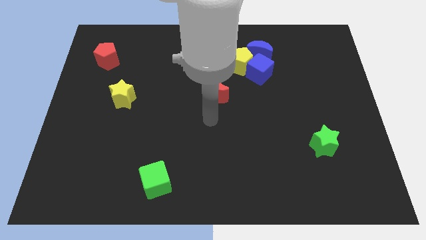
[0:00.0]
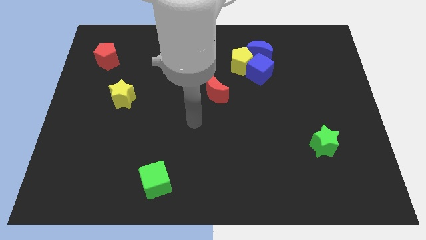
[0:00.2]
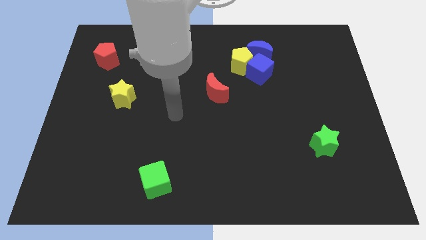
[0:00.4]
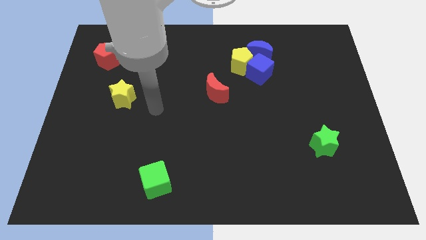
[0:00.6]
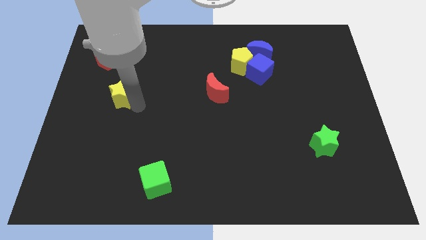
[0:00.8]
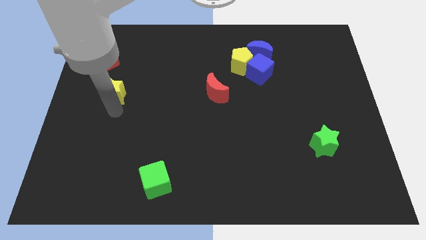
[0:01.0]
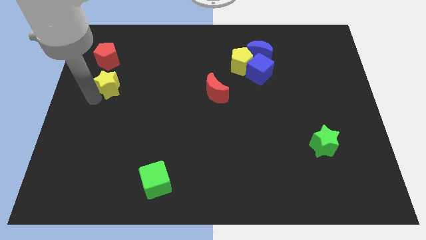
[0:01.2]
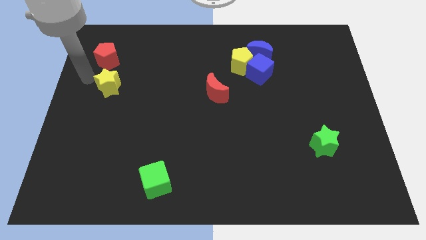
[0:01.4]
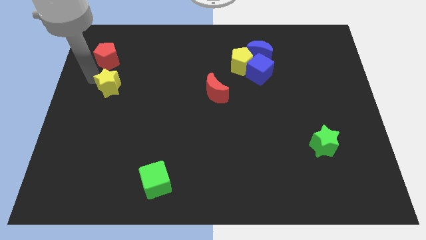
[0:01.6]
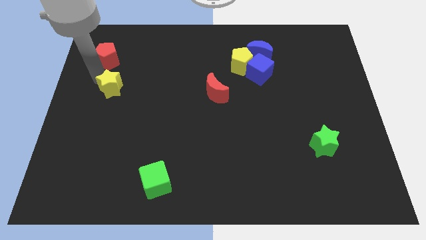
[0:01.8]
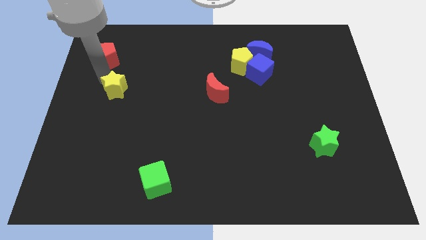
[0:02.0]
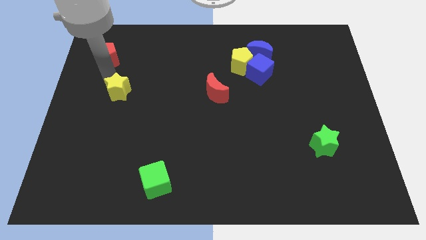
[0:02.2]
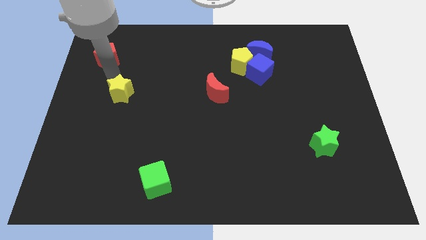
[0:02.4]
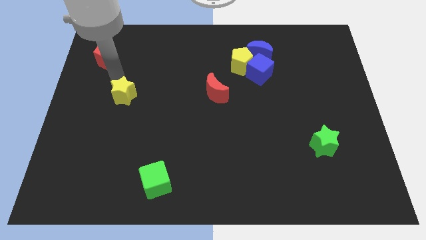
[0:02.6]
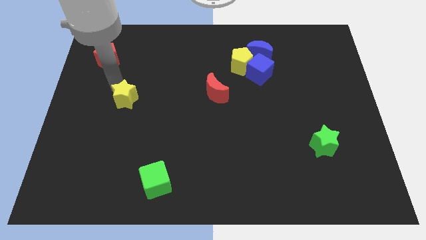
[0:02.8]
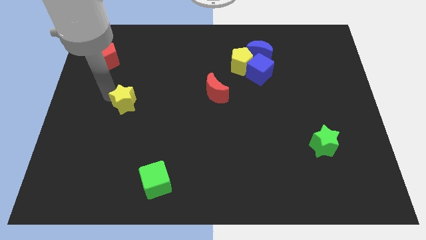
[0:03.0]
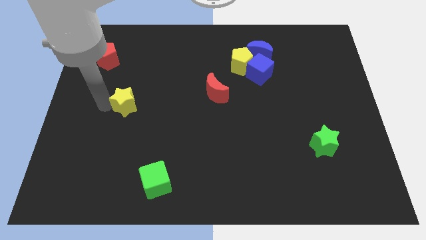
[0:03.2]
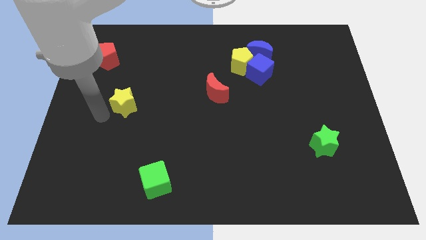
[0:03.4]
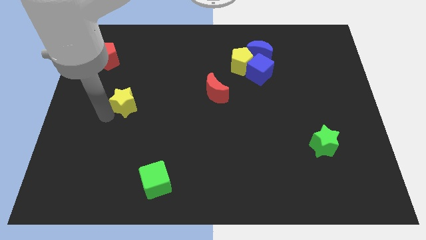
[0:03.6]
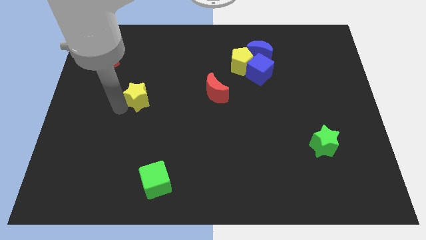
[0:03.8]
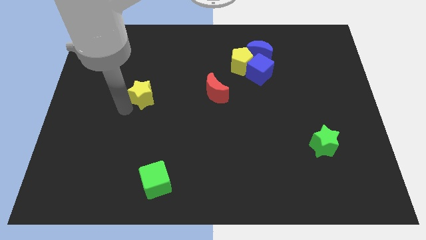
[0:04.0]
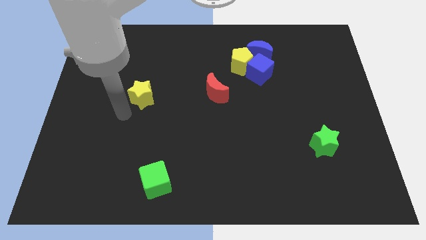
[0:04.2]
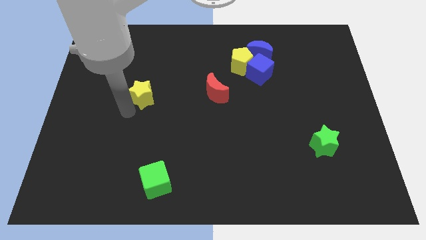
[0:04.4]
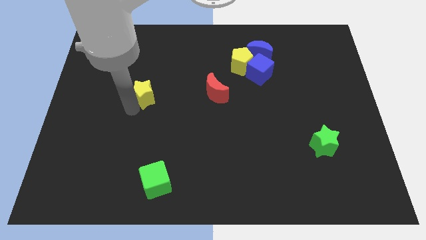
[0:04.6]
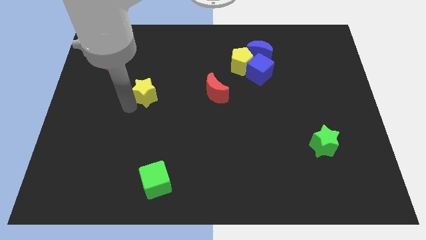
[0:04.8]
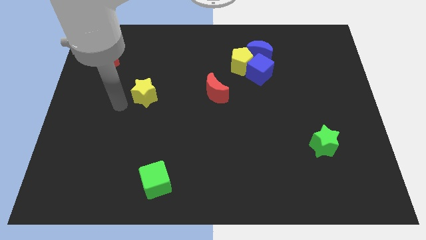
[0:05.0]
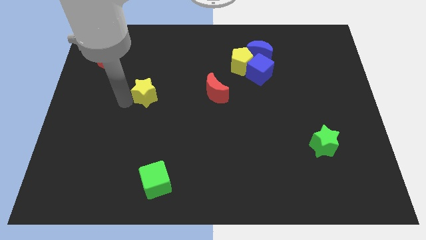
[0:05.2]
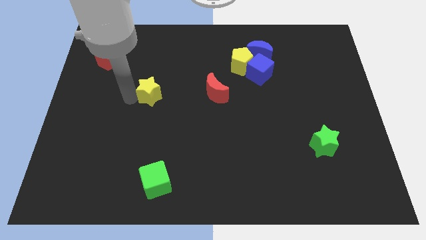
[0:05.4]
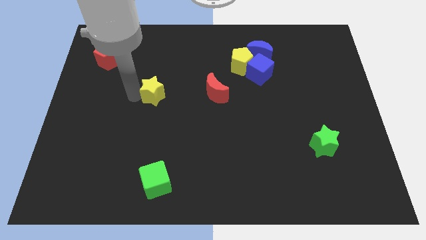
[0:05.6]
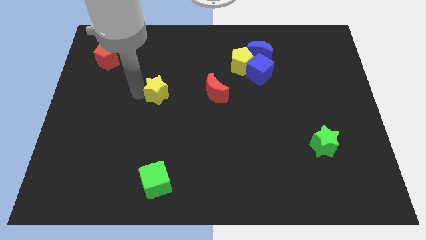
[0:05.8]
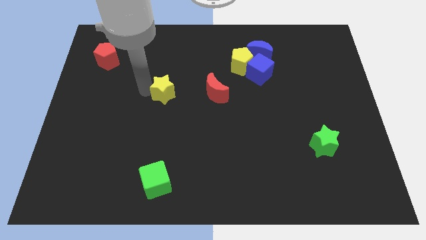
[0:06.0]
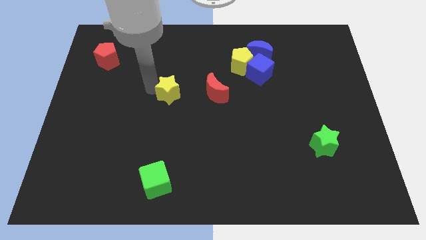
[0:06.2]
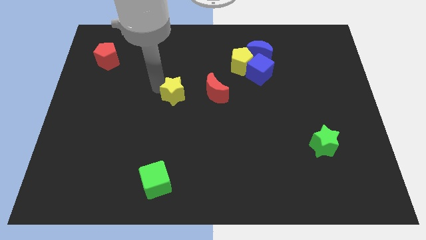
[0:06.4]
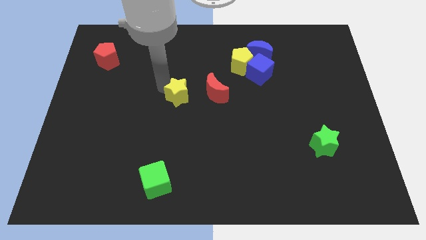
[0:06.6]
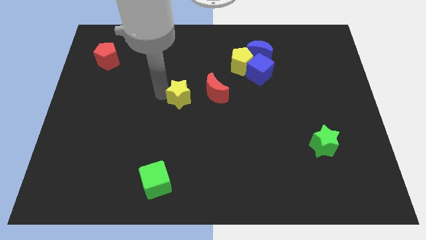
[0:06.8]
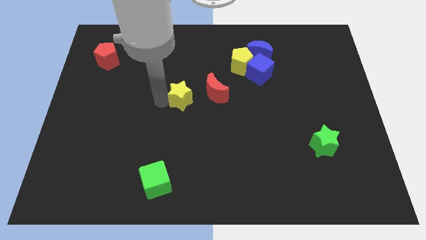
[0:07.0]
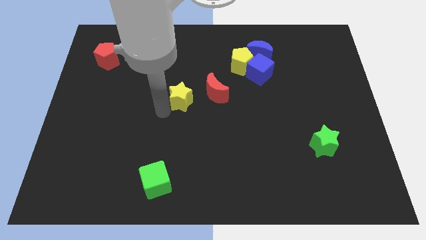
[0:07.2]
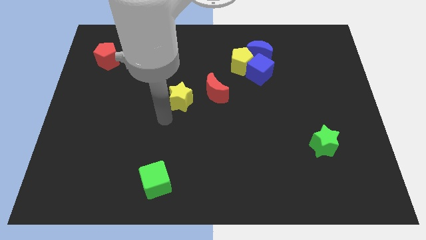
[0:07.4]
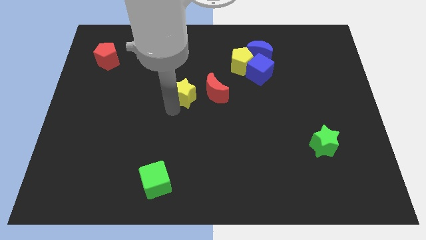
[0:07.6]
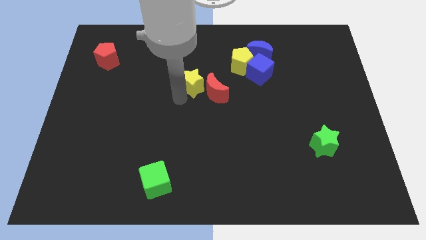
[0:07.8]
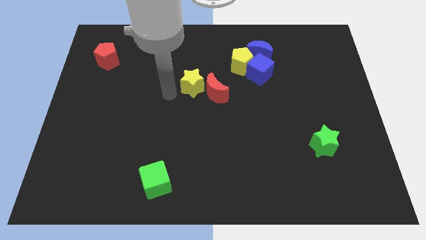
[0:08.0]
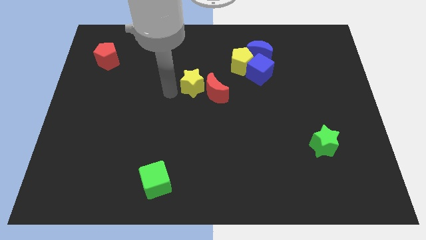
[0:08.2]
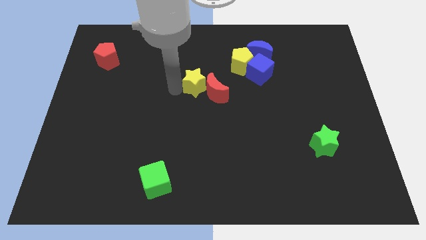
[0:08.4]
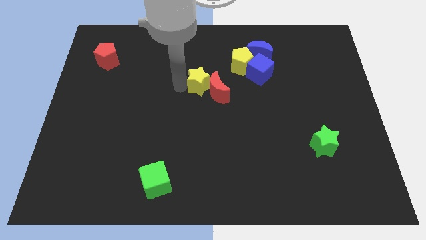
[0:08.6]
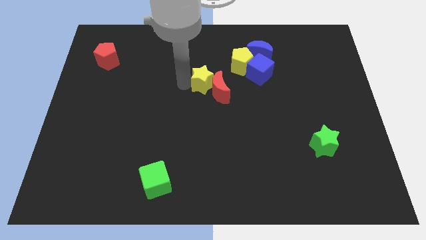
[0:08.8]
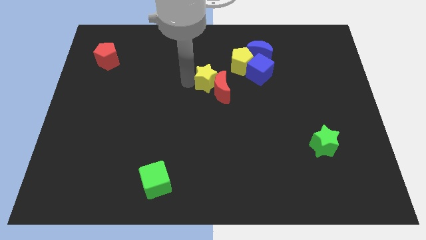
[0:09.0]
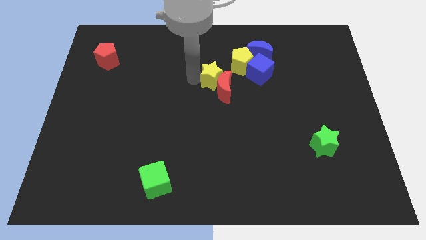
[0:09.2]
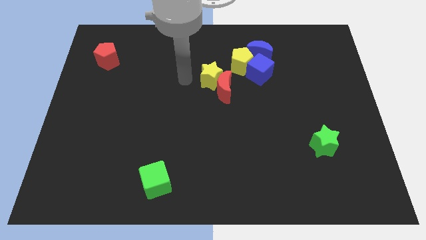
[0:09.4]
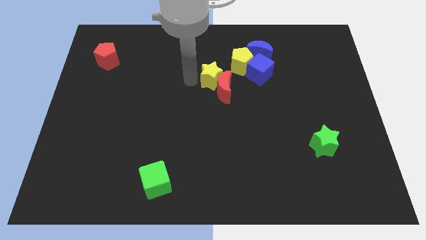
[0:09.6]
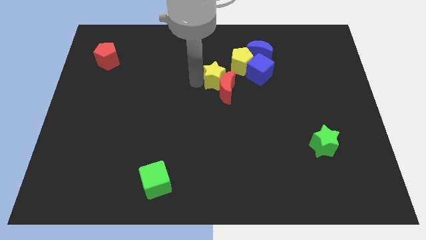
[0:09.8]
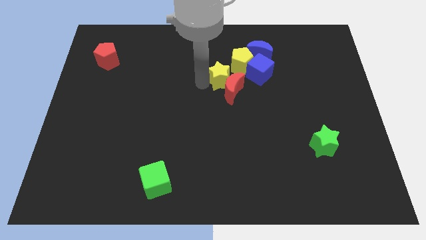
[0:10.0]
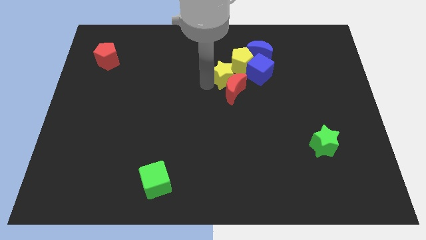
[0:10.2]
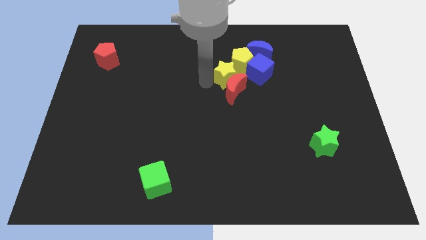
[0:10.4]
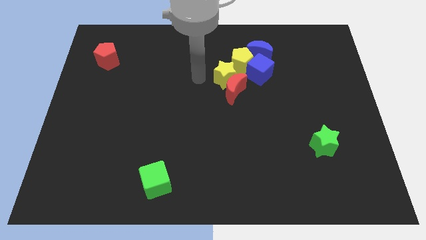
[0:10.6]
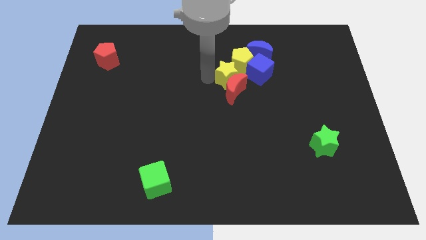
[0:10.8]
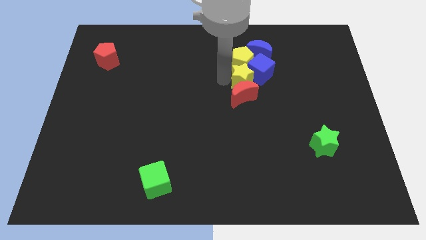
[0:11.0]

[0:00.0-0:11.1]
move the yellow star towards the blue cube

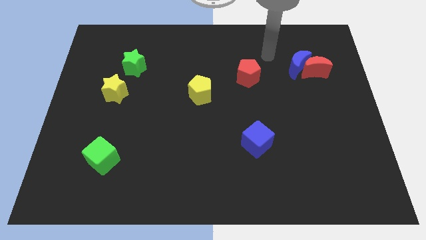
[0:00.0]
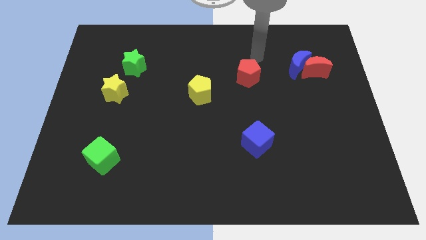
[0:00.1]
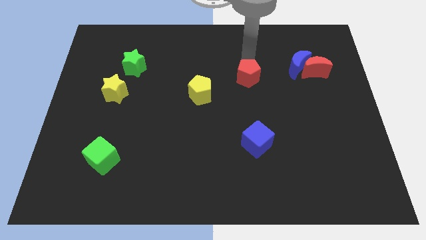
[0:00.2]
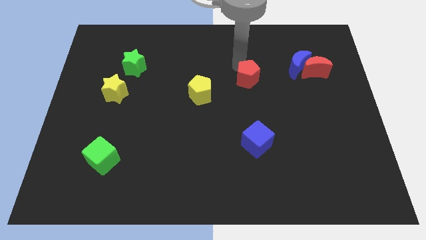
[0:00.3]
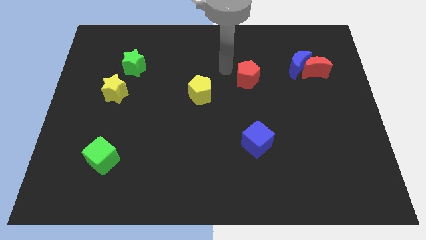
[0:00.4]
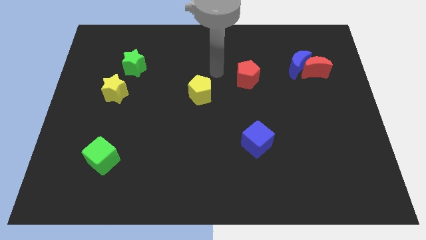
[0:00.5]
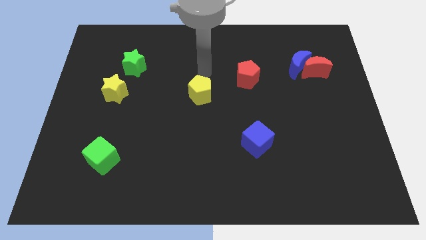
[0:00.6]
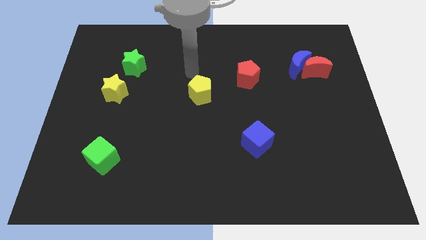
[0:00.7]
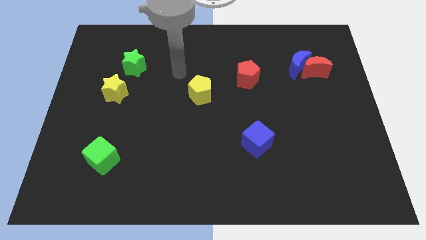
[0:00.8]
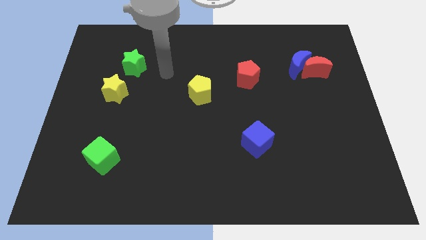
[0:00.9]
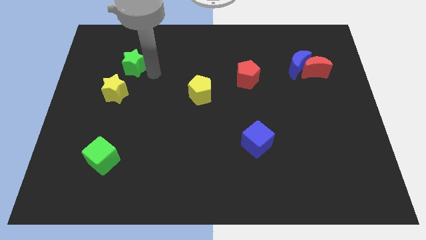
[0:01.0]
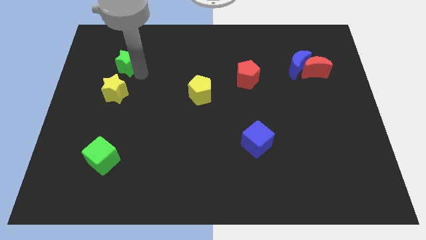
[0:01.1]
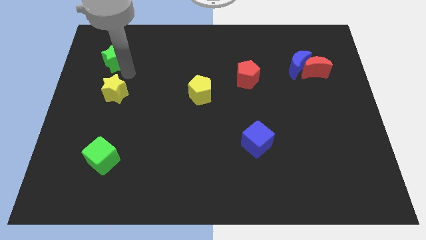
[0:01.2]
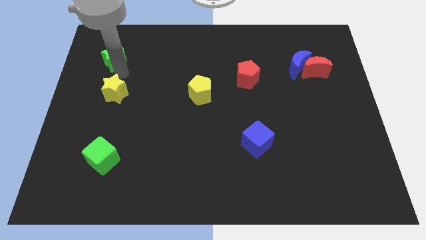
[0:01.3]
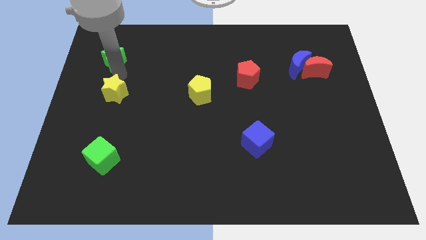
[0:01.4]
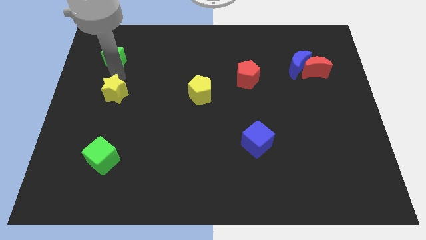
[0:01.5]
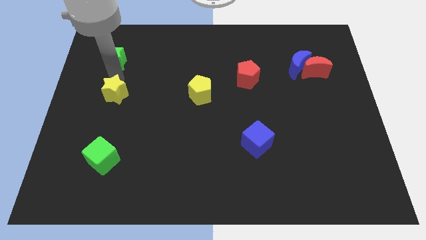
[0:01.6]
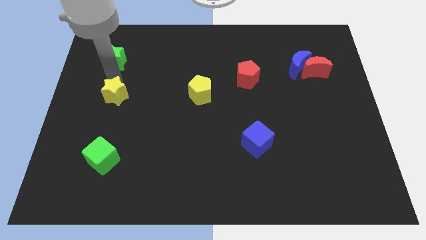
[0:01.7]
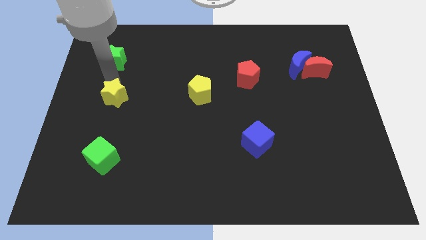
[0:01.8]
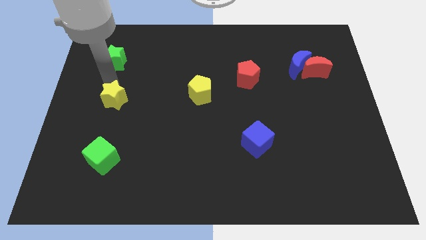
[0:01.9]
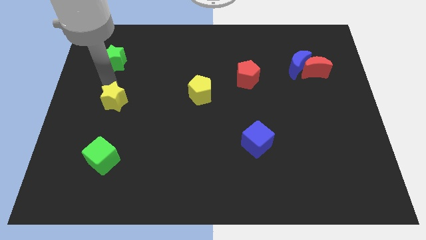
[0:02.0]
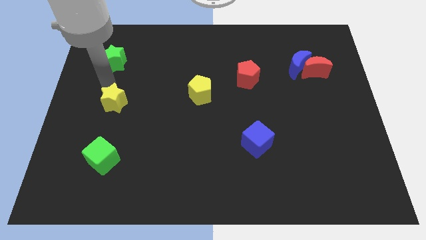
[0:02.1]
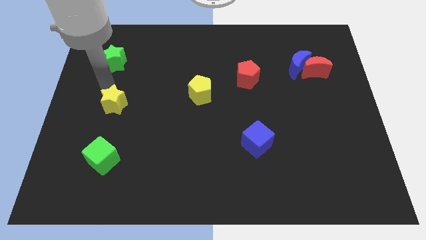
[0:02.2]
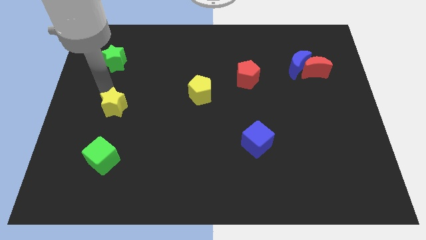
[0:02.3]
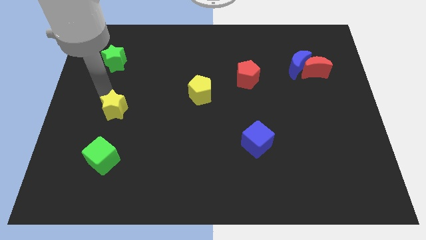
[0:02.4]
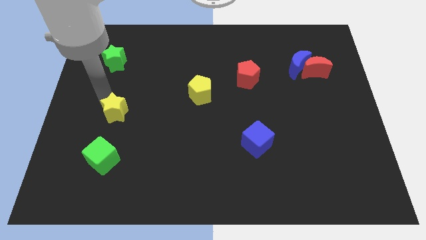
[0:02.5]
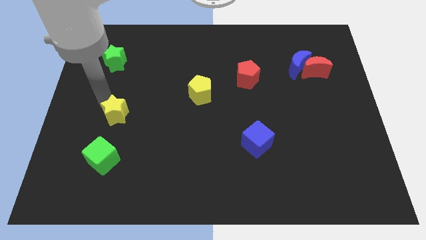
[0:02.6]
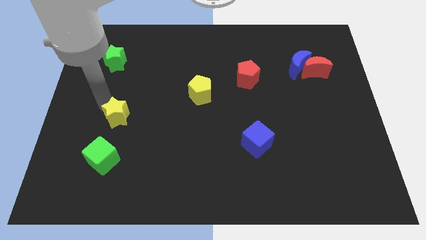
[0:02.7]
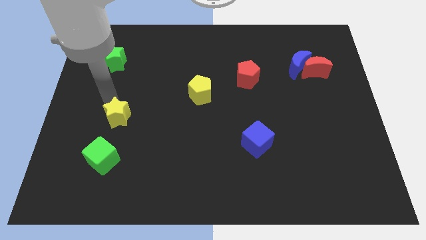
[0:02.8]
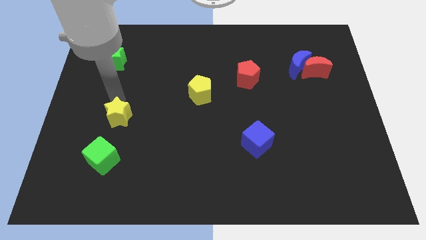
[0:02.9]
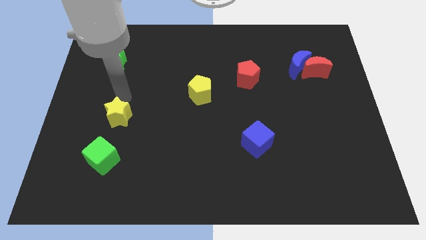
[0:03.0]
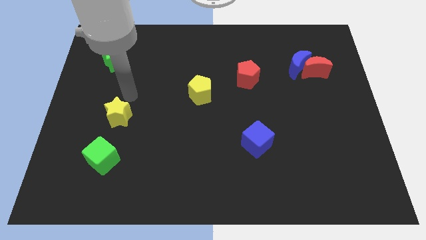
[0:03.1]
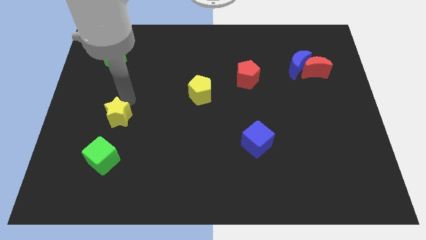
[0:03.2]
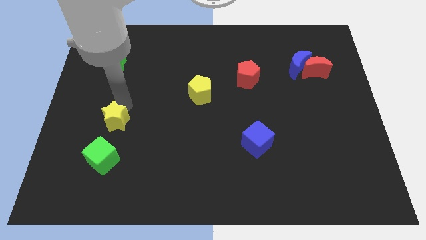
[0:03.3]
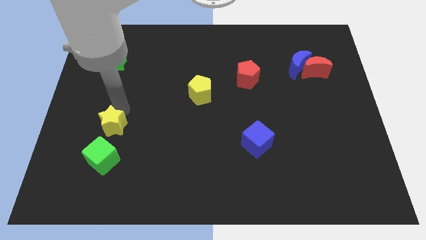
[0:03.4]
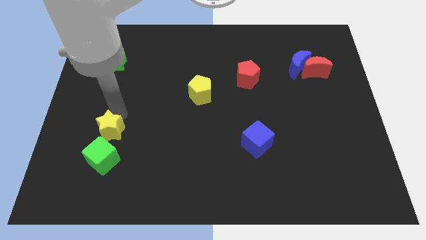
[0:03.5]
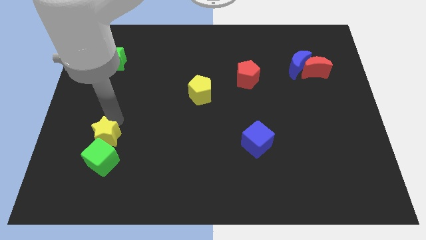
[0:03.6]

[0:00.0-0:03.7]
slide the yellow star towards the green cube
